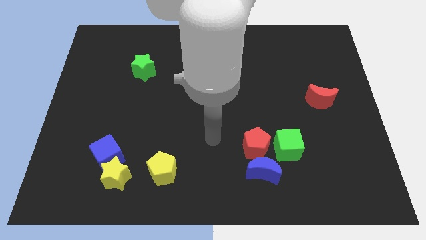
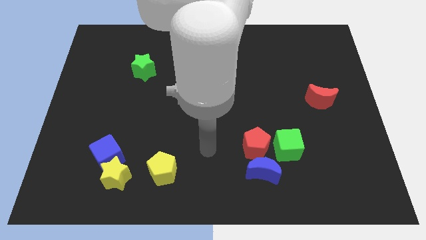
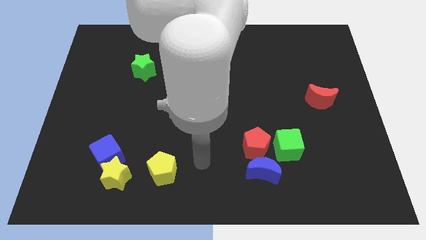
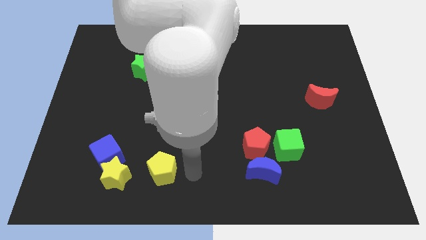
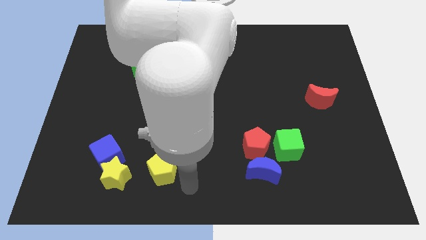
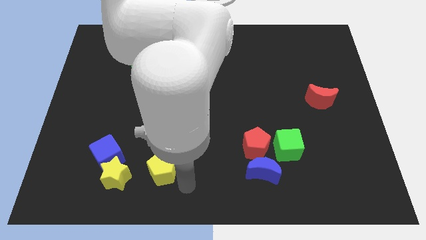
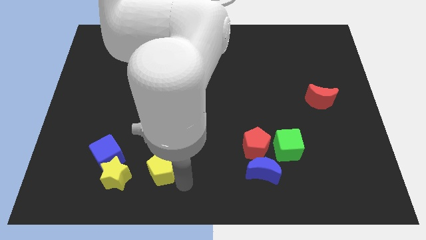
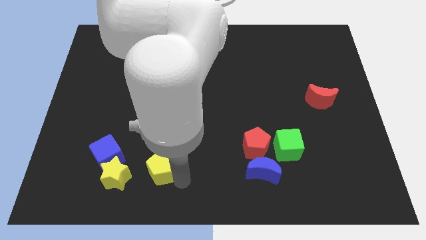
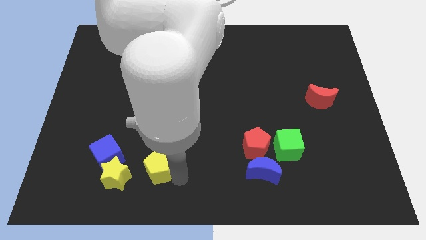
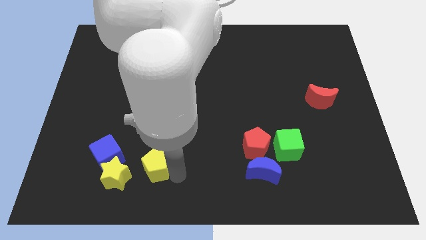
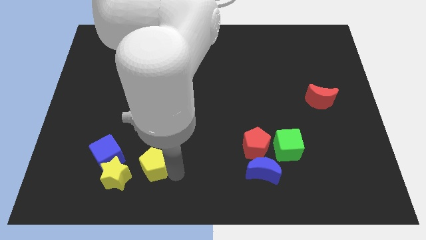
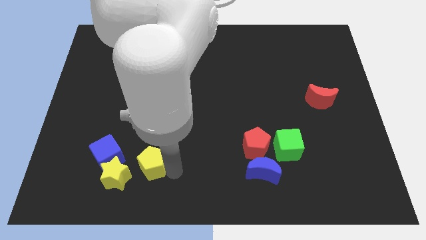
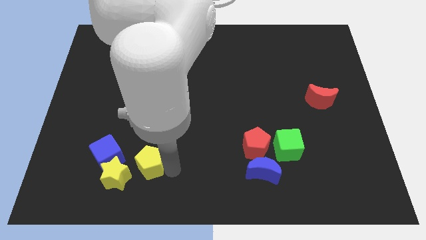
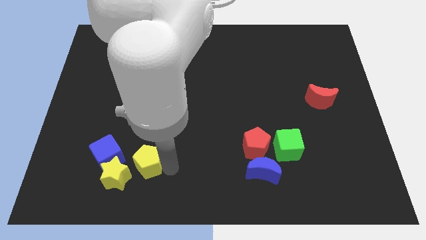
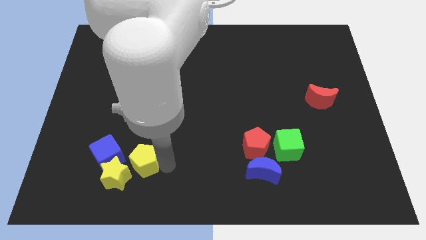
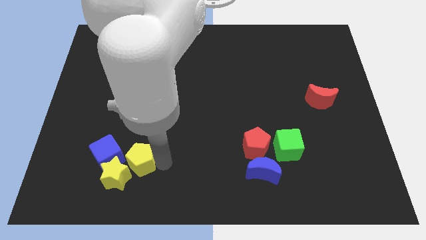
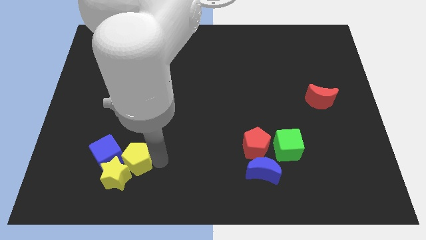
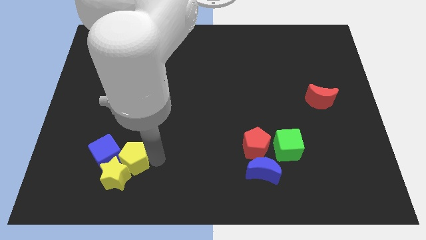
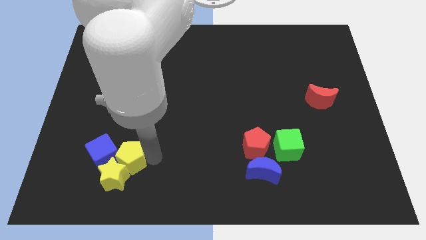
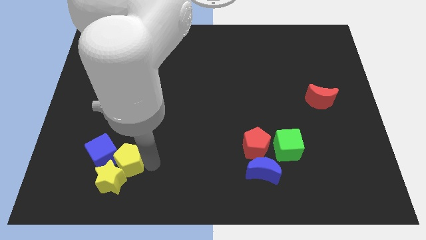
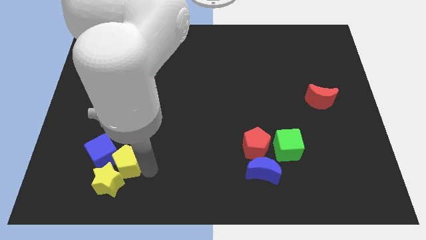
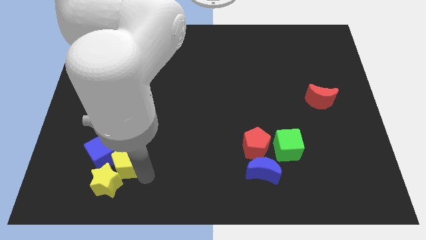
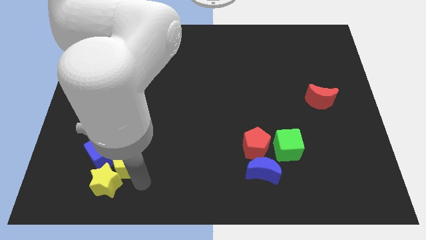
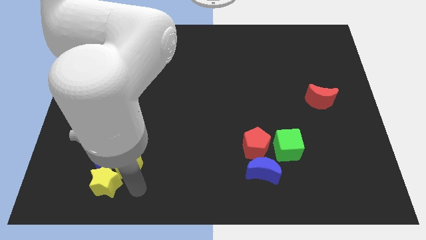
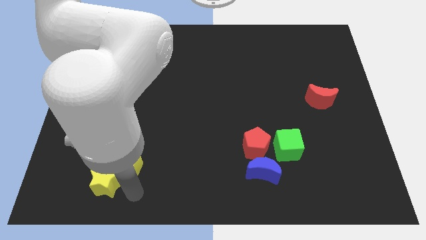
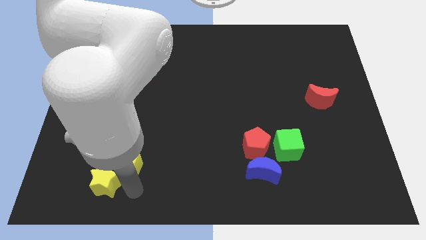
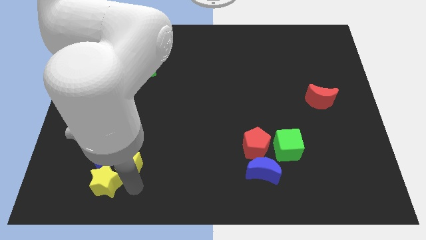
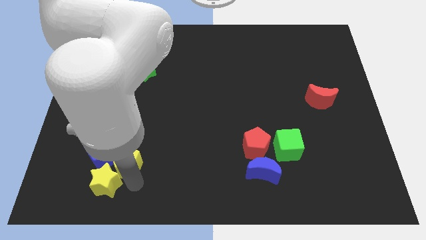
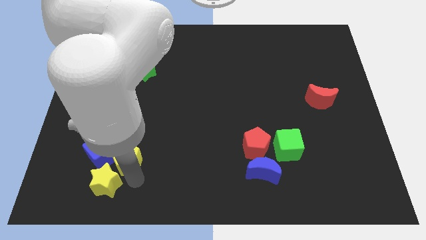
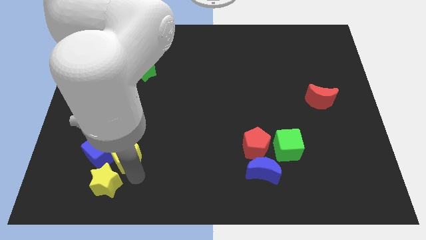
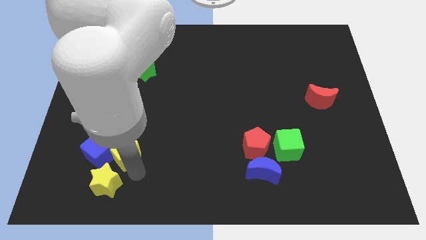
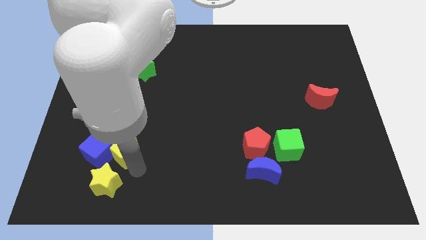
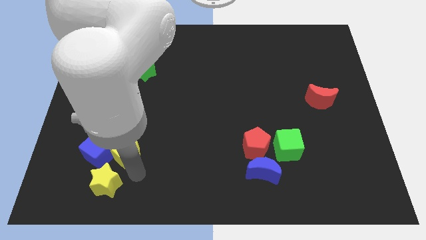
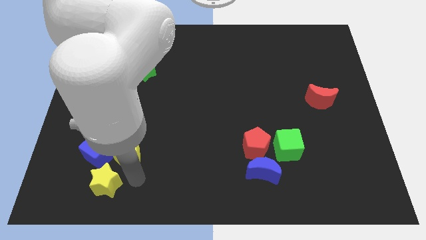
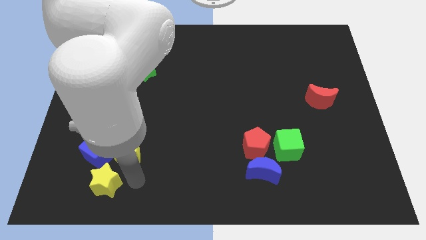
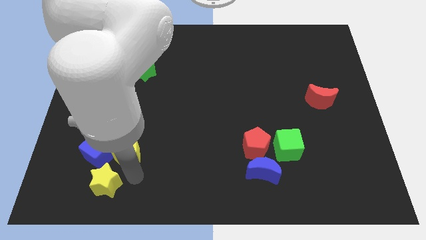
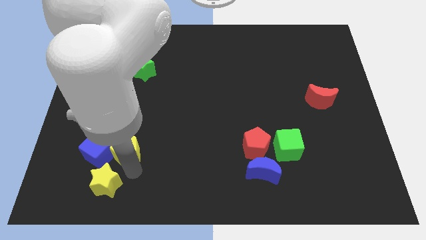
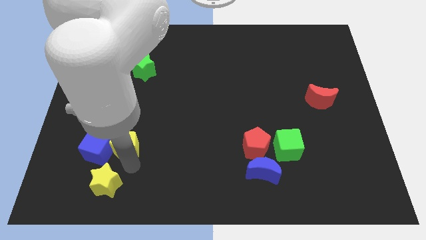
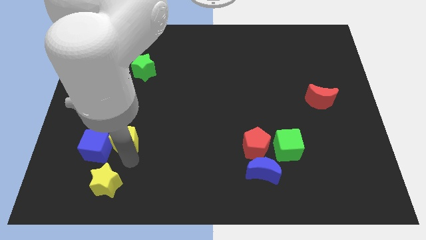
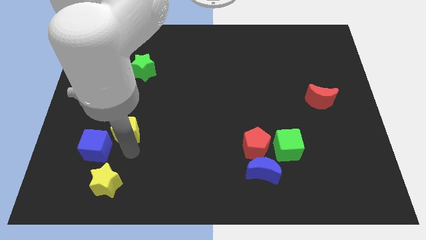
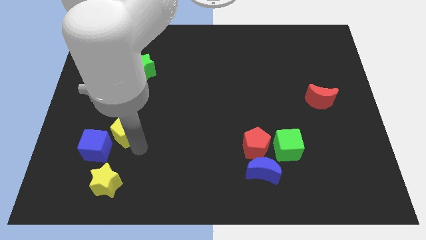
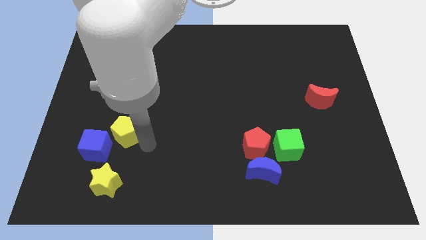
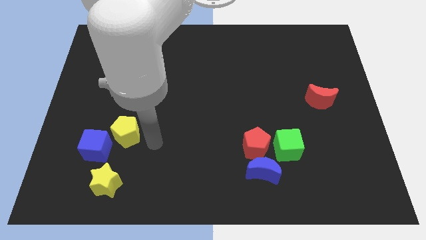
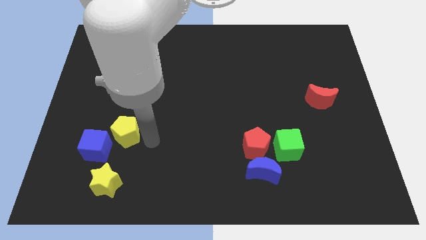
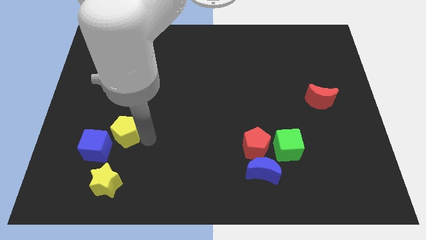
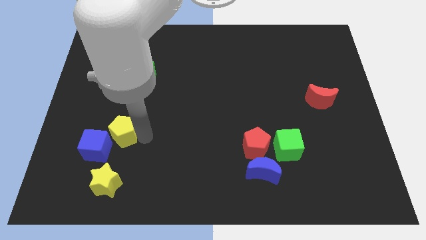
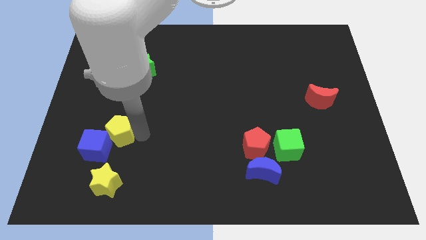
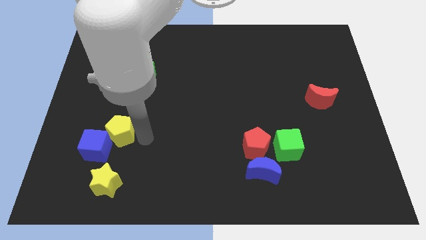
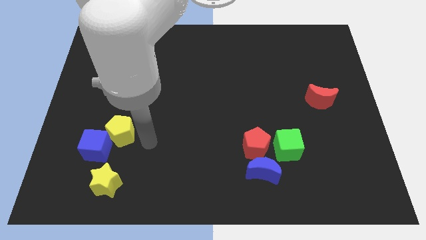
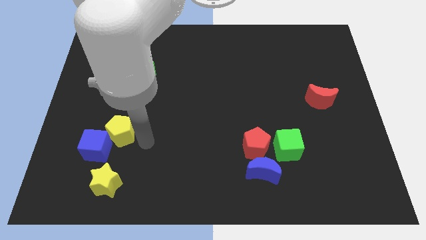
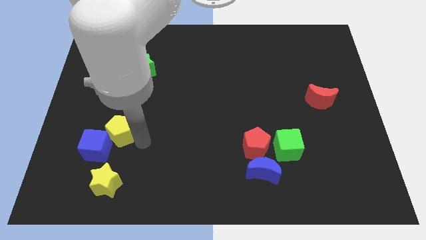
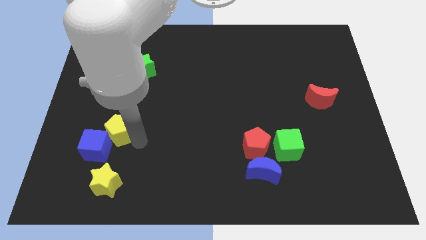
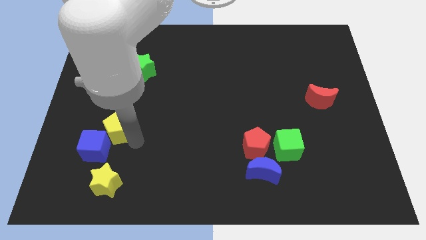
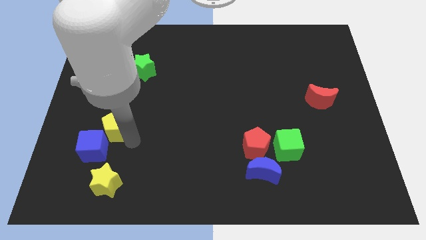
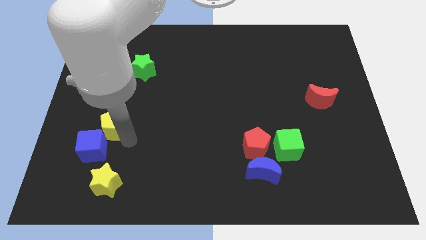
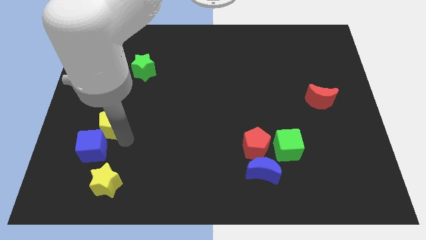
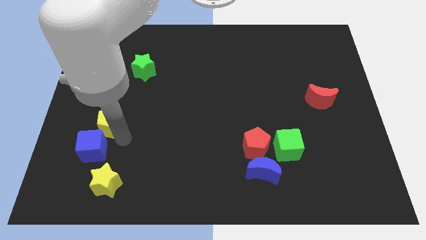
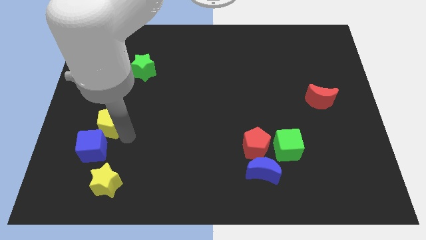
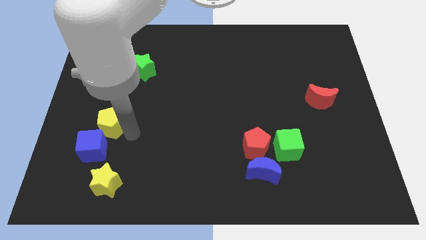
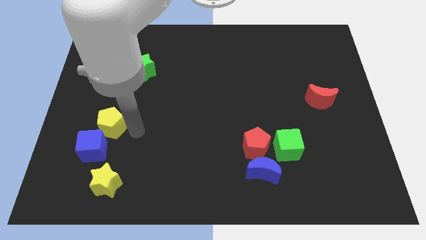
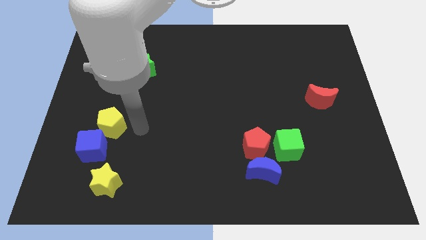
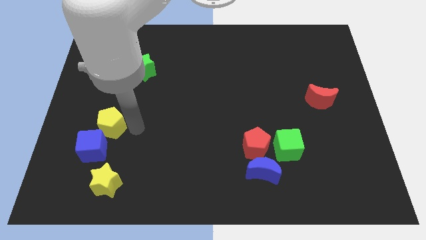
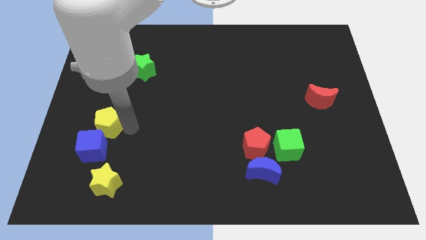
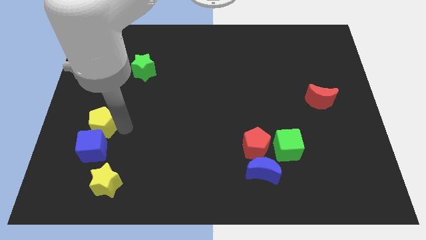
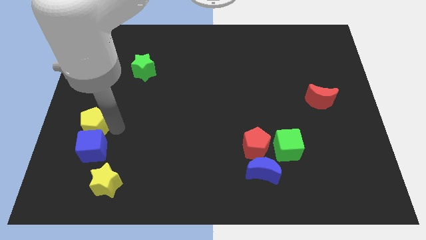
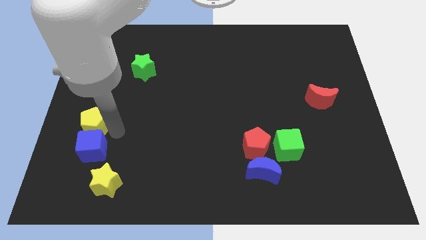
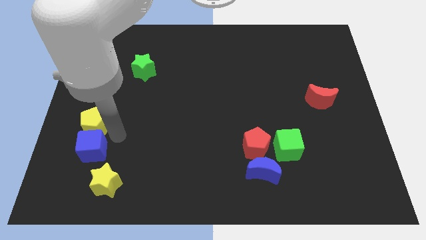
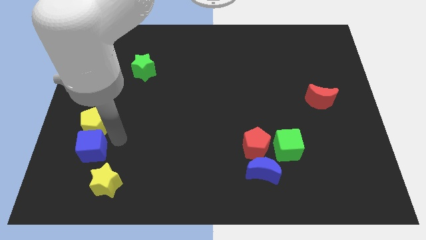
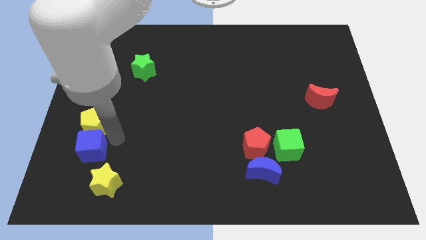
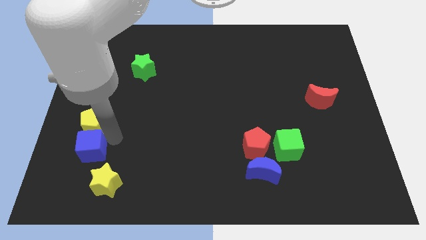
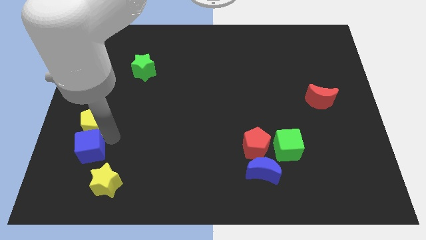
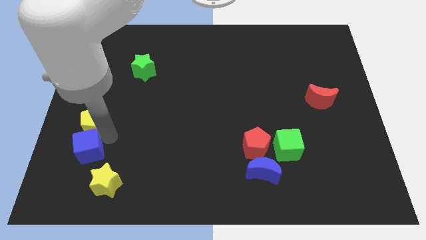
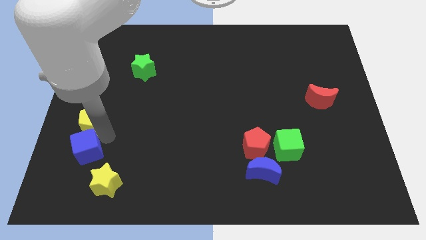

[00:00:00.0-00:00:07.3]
push the yellow pentagon to the center left
